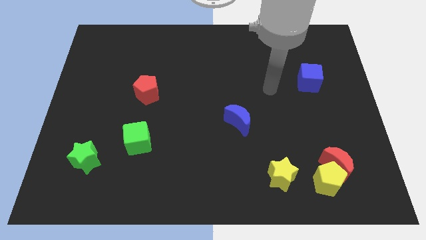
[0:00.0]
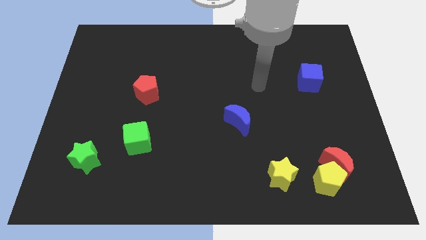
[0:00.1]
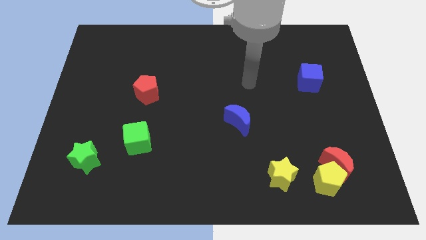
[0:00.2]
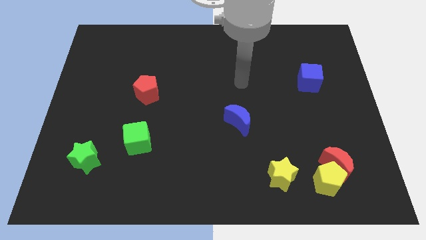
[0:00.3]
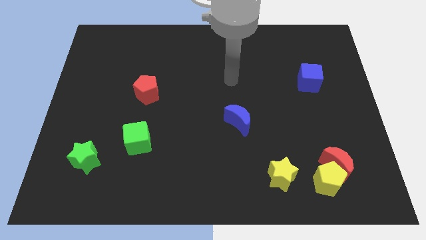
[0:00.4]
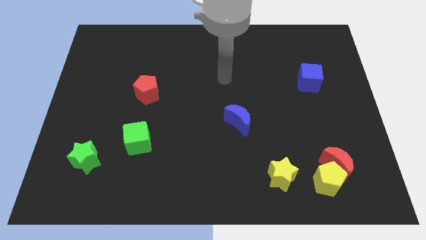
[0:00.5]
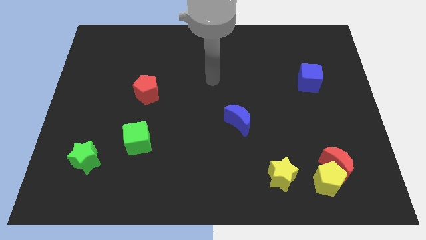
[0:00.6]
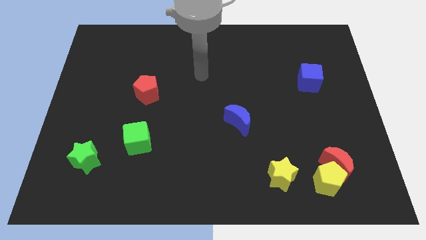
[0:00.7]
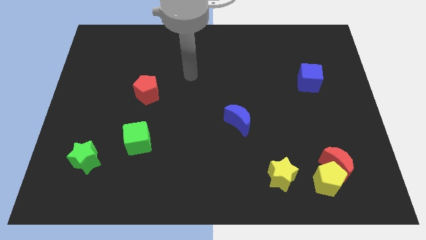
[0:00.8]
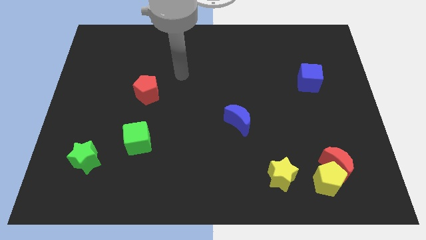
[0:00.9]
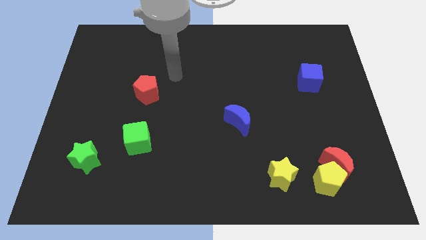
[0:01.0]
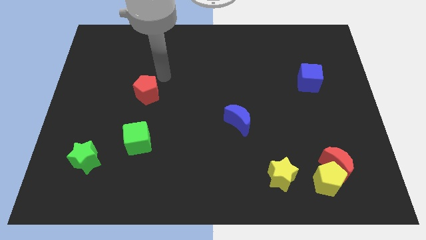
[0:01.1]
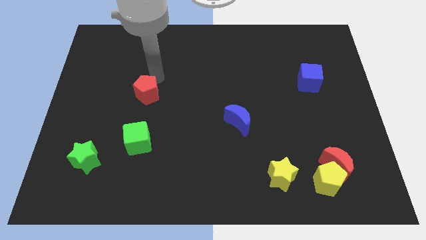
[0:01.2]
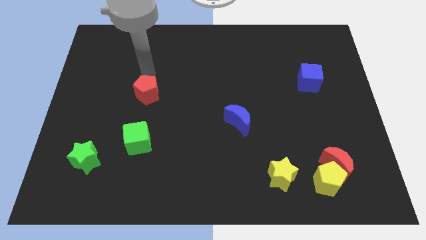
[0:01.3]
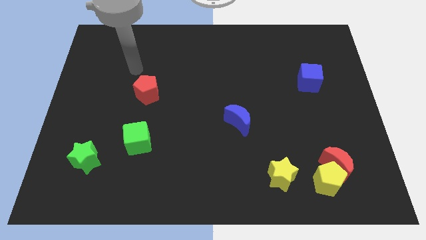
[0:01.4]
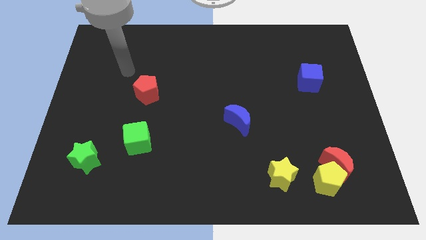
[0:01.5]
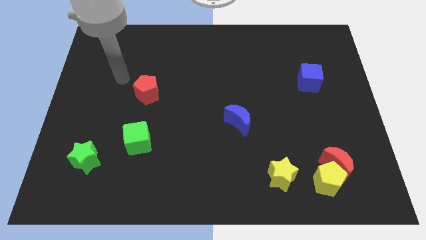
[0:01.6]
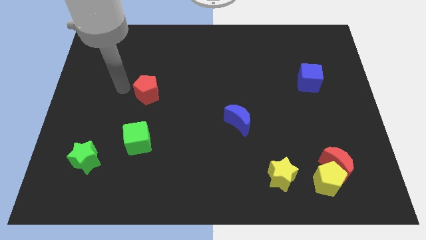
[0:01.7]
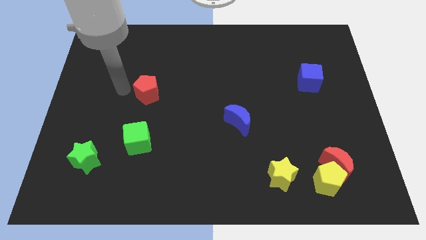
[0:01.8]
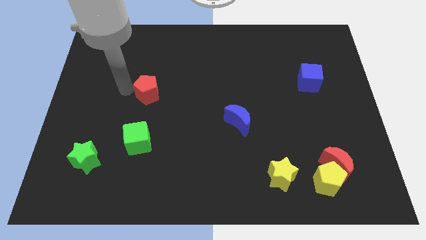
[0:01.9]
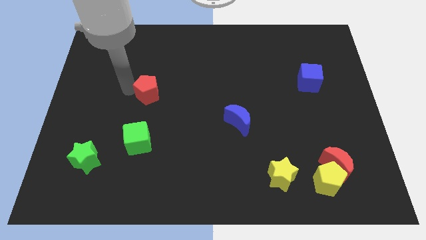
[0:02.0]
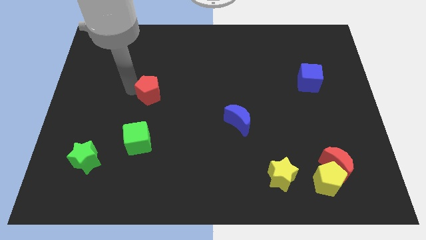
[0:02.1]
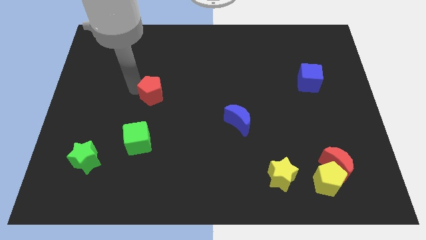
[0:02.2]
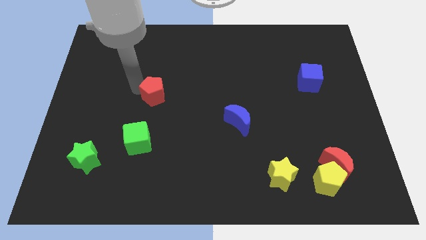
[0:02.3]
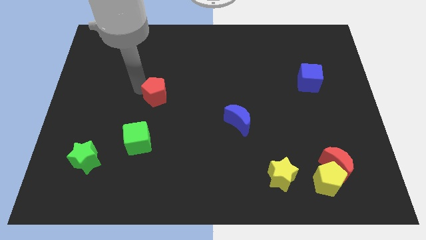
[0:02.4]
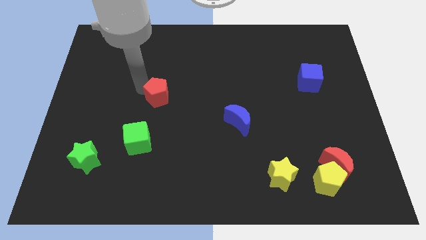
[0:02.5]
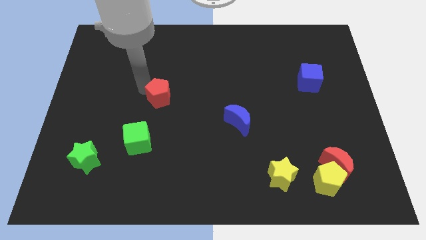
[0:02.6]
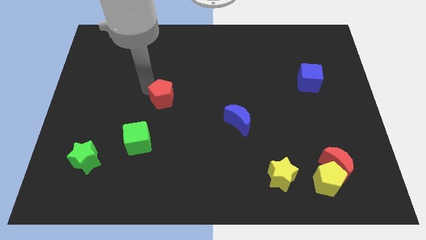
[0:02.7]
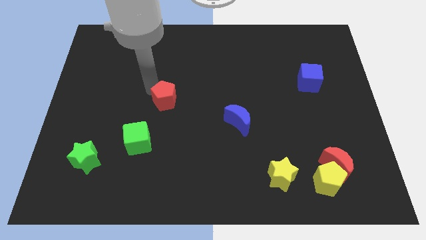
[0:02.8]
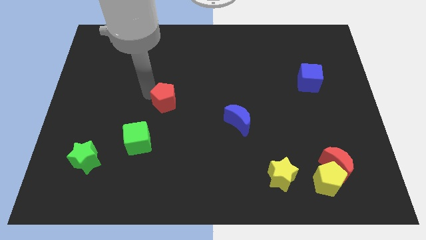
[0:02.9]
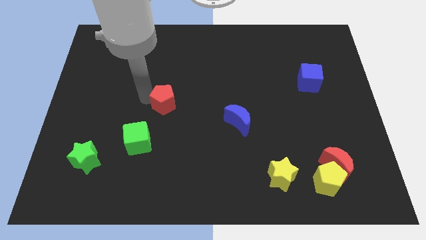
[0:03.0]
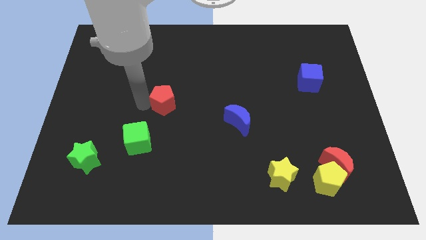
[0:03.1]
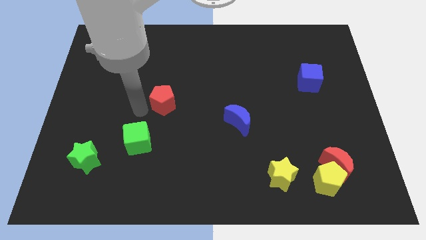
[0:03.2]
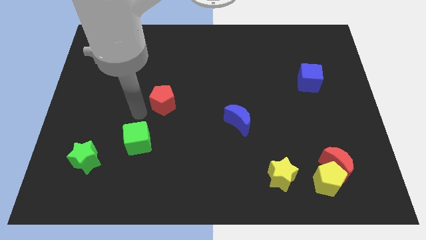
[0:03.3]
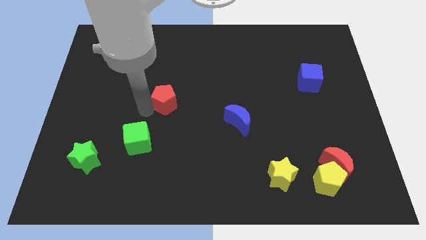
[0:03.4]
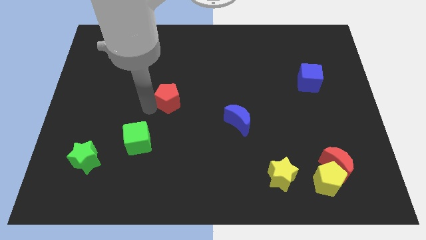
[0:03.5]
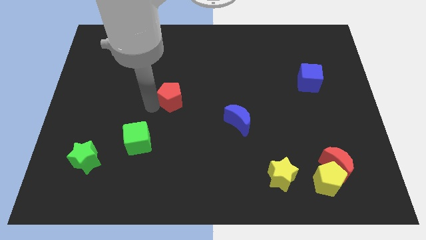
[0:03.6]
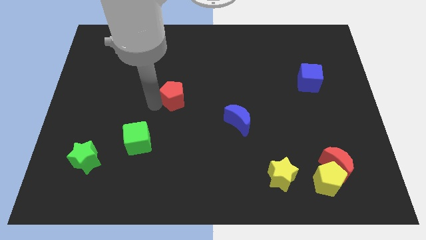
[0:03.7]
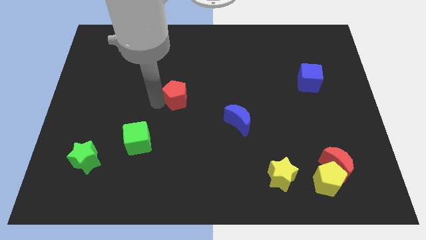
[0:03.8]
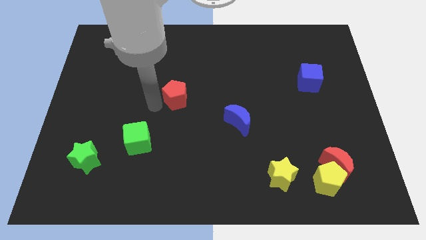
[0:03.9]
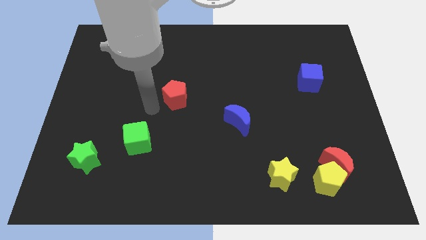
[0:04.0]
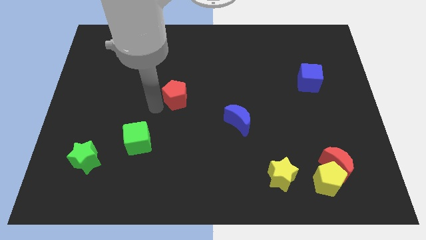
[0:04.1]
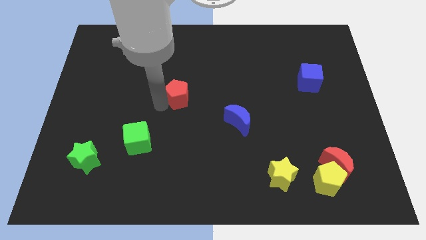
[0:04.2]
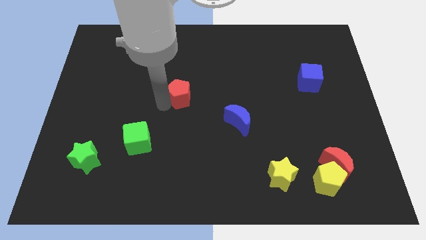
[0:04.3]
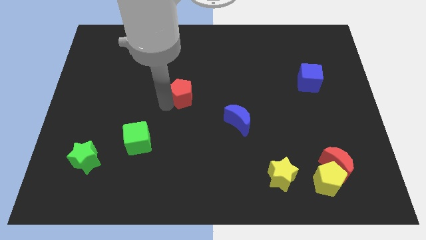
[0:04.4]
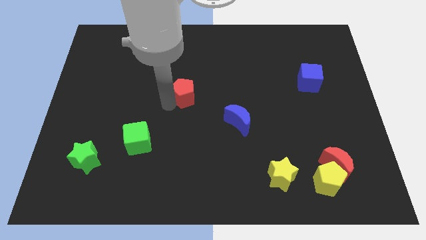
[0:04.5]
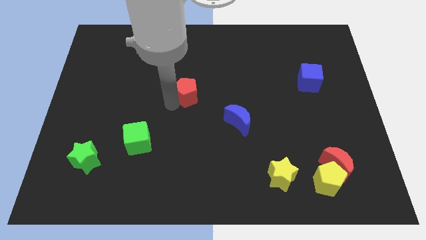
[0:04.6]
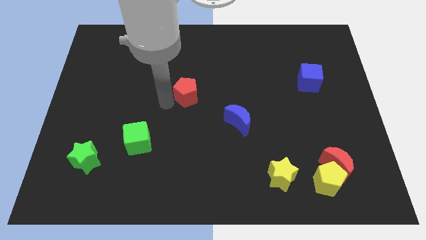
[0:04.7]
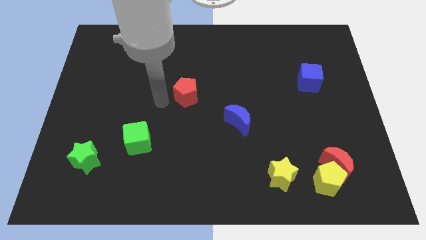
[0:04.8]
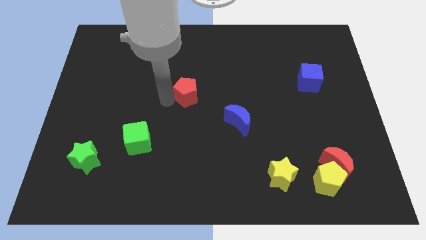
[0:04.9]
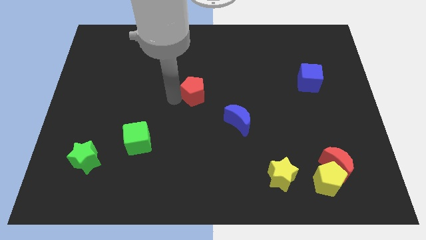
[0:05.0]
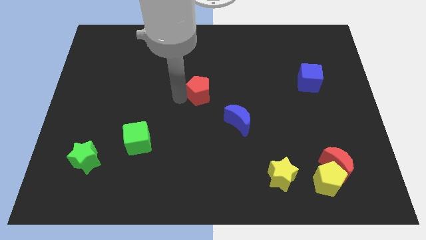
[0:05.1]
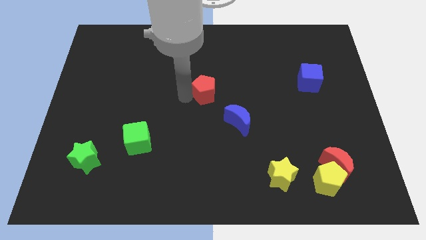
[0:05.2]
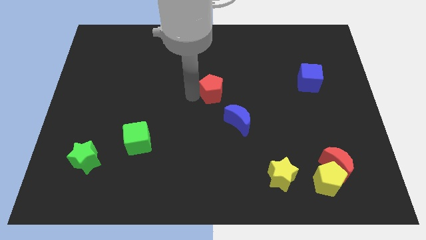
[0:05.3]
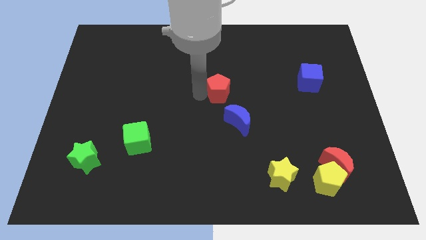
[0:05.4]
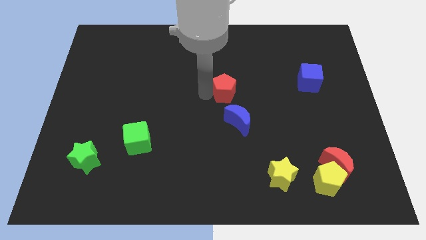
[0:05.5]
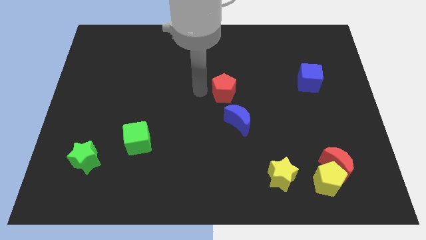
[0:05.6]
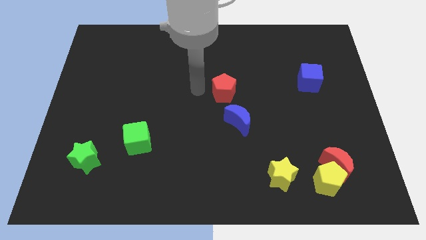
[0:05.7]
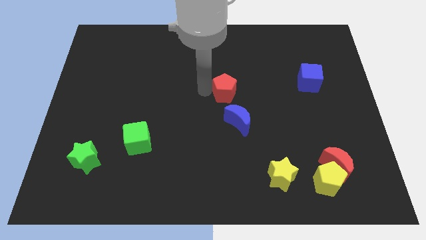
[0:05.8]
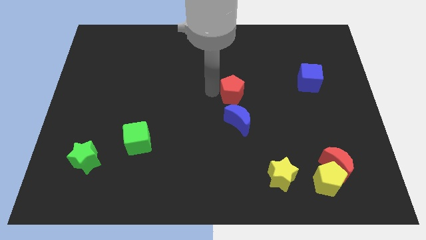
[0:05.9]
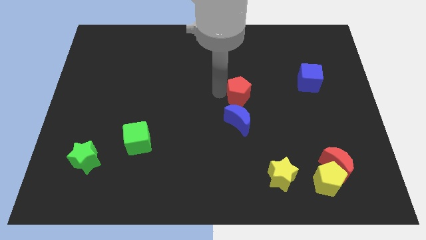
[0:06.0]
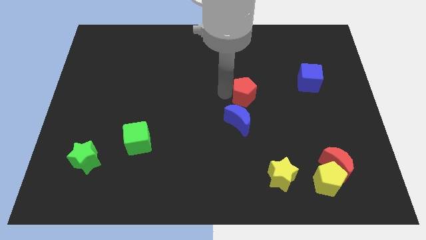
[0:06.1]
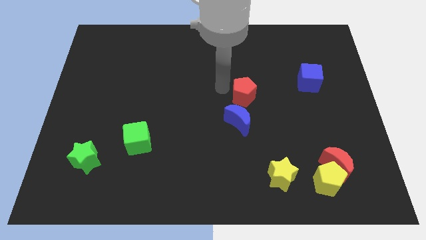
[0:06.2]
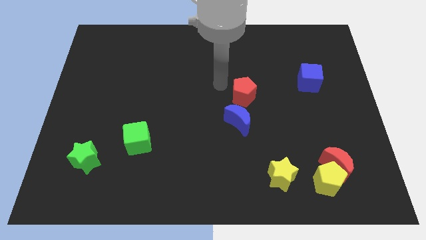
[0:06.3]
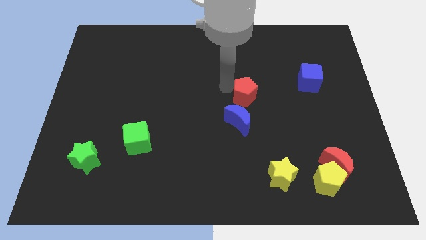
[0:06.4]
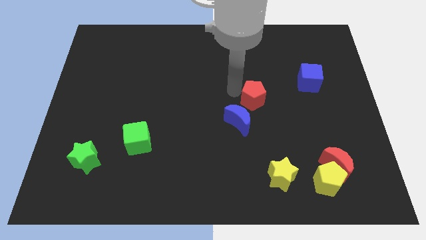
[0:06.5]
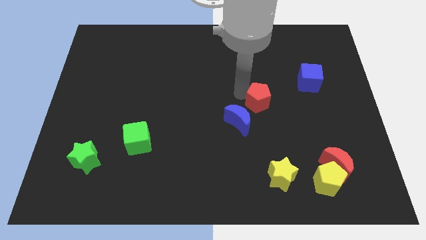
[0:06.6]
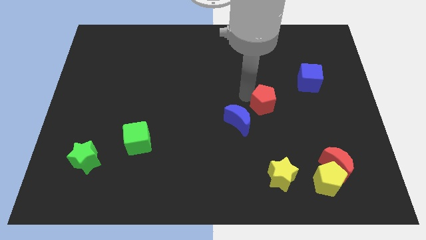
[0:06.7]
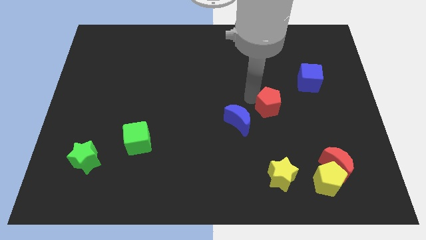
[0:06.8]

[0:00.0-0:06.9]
move the red pentagon to the right side of the blue moon
